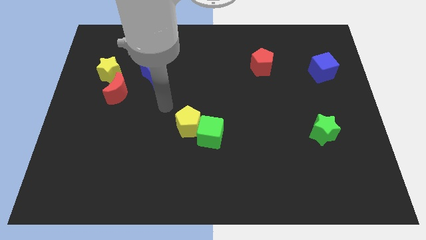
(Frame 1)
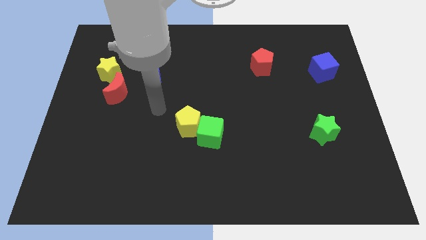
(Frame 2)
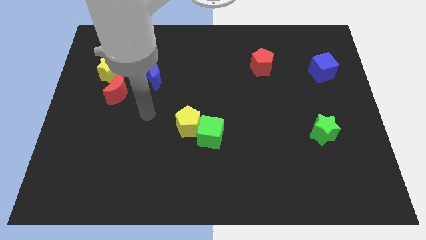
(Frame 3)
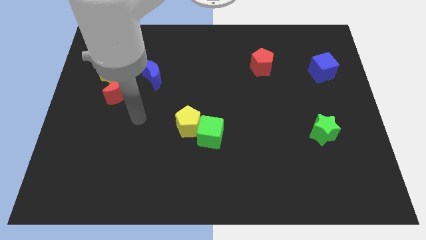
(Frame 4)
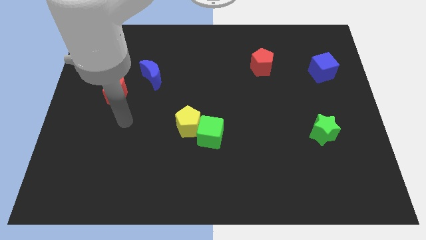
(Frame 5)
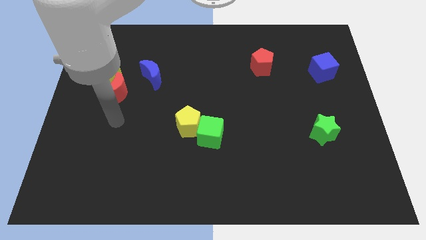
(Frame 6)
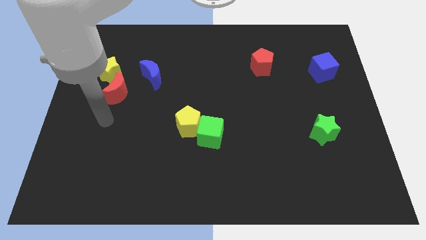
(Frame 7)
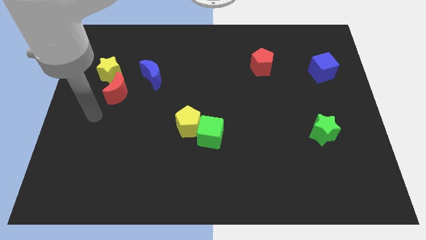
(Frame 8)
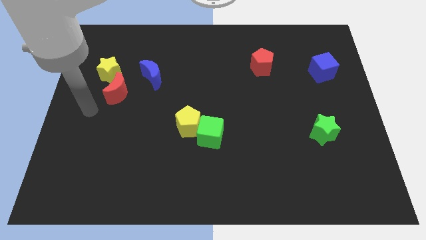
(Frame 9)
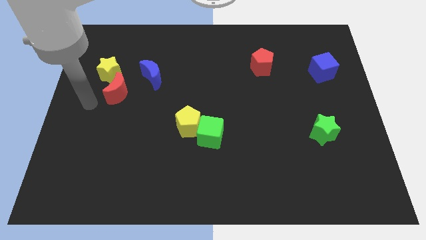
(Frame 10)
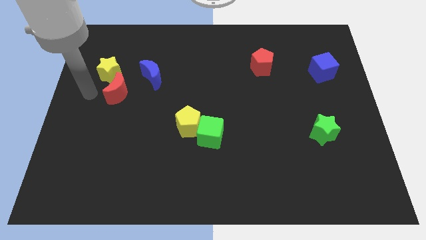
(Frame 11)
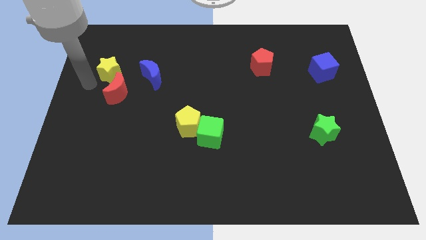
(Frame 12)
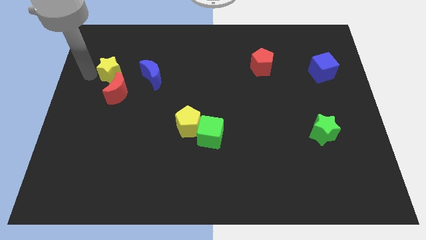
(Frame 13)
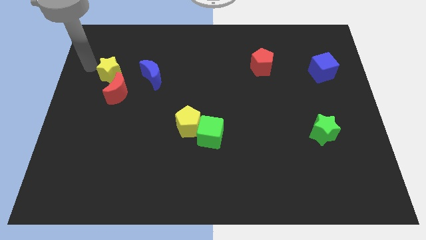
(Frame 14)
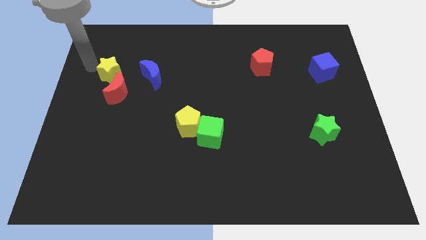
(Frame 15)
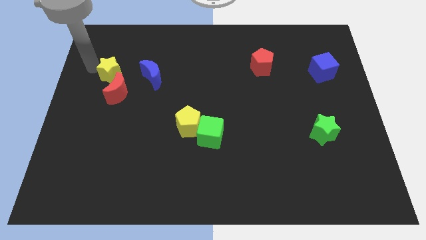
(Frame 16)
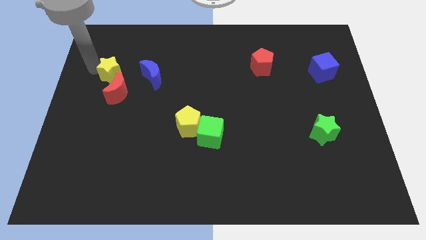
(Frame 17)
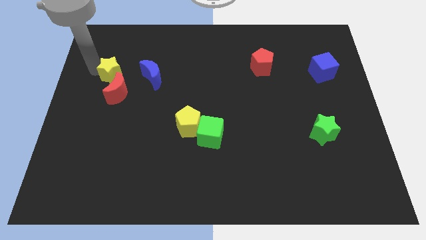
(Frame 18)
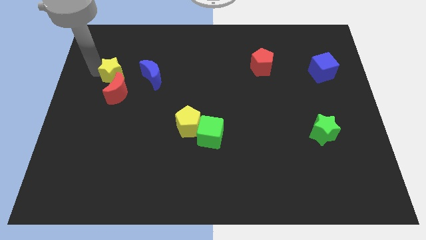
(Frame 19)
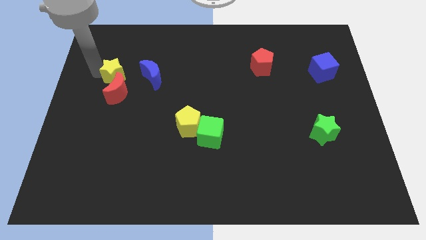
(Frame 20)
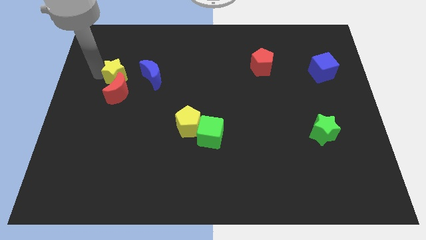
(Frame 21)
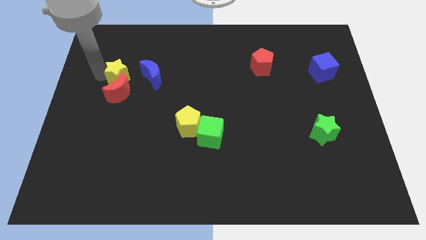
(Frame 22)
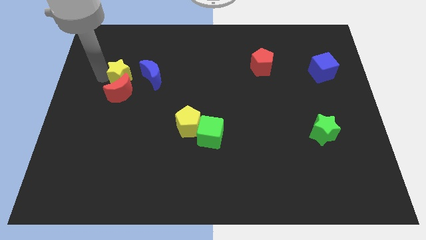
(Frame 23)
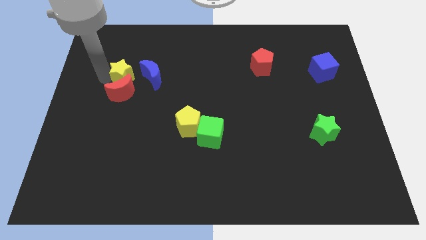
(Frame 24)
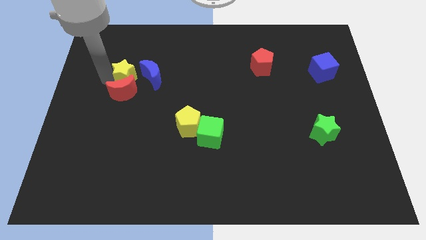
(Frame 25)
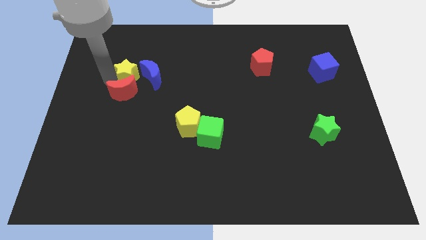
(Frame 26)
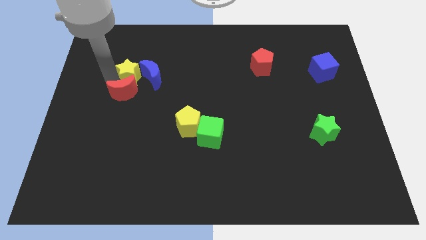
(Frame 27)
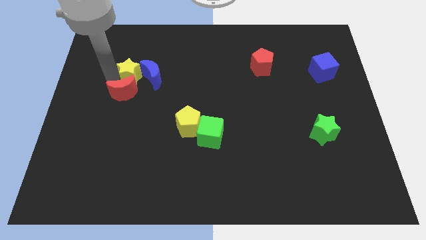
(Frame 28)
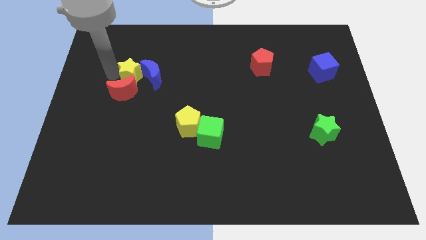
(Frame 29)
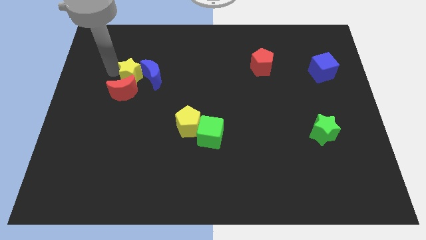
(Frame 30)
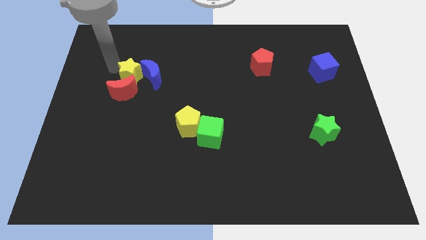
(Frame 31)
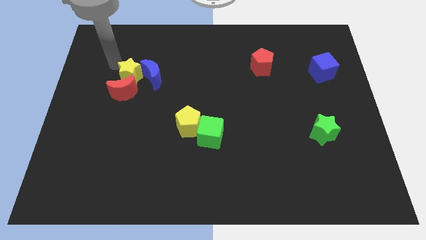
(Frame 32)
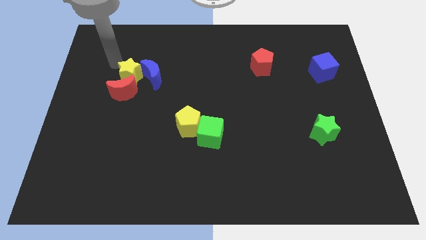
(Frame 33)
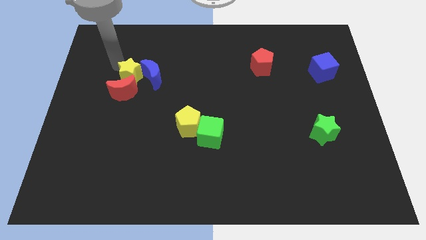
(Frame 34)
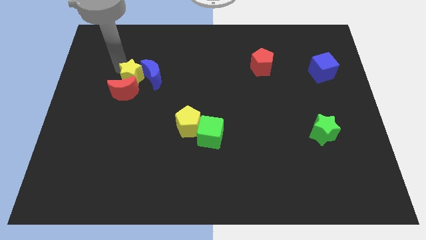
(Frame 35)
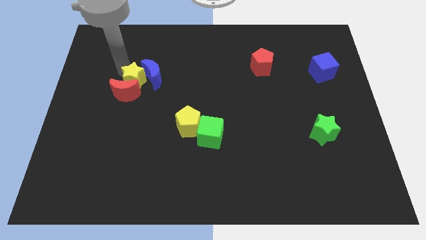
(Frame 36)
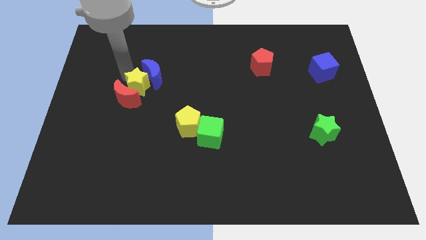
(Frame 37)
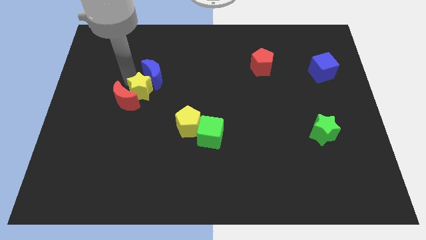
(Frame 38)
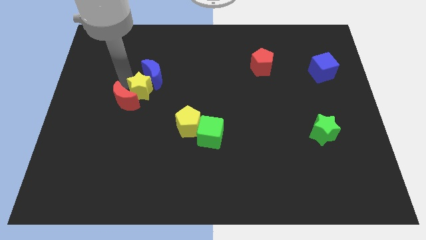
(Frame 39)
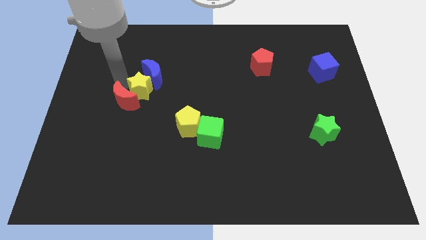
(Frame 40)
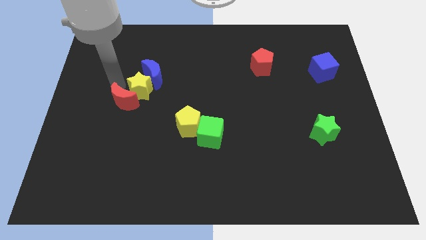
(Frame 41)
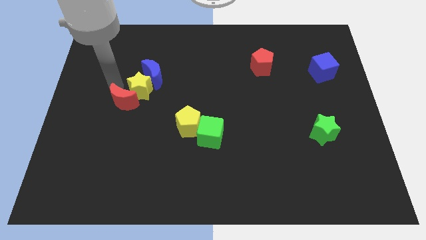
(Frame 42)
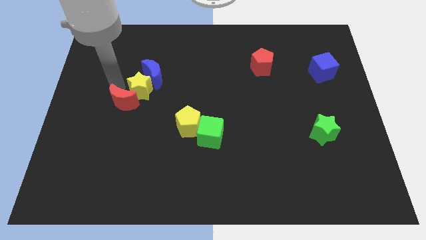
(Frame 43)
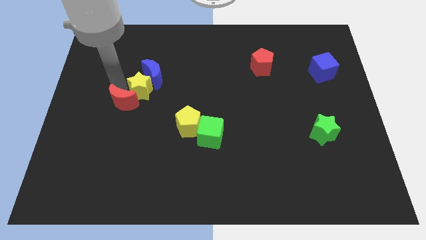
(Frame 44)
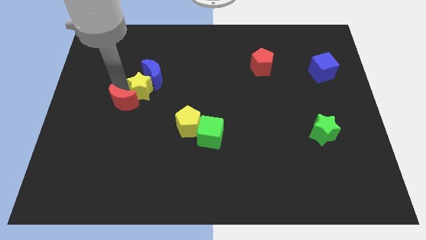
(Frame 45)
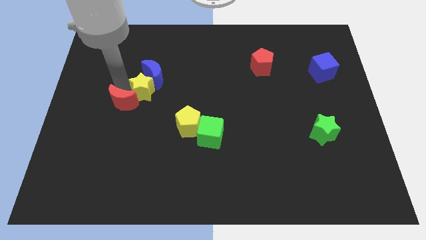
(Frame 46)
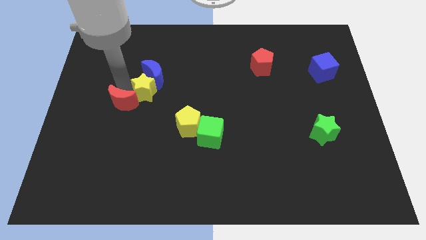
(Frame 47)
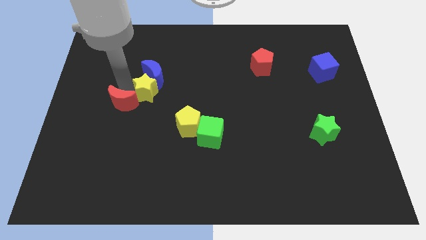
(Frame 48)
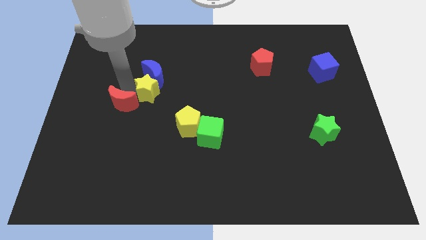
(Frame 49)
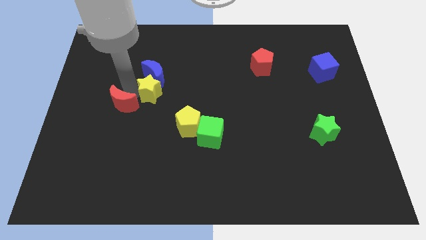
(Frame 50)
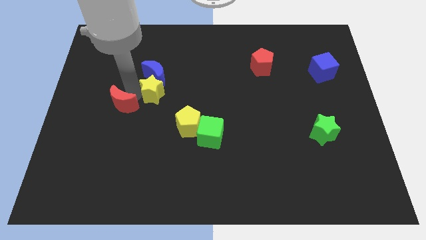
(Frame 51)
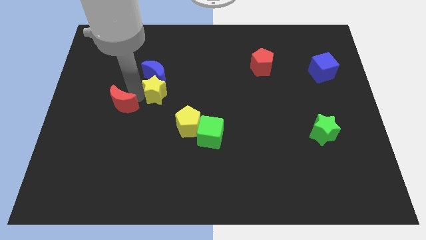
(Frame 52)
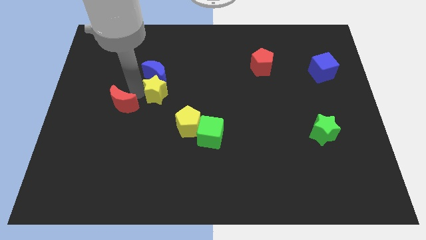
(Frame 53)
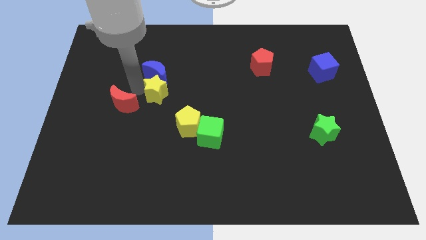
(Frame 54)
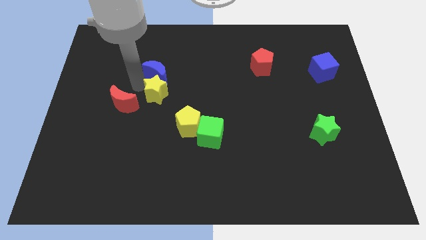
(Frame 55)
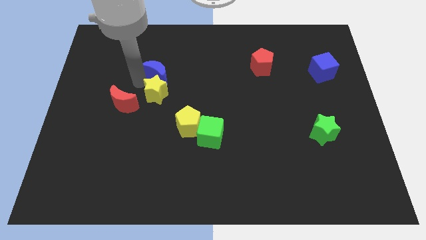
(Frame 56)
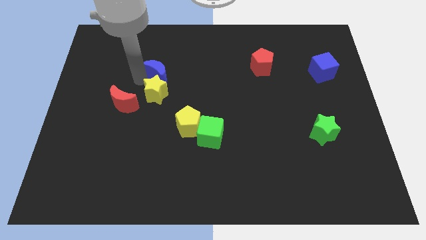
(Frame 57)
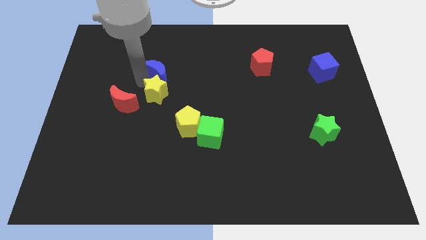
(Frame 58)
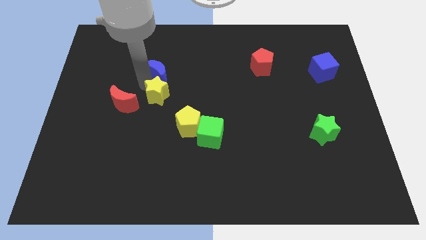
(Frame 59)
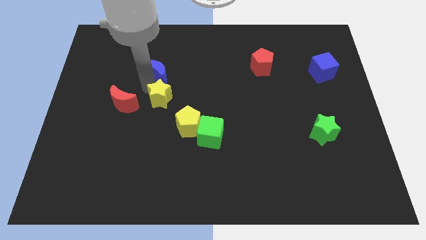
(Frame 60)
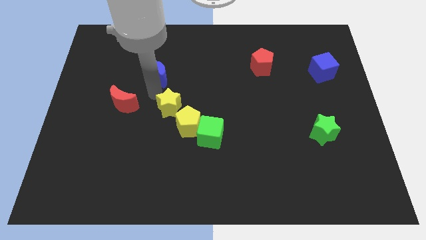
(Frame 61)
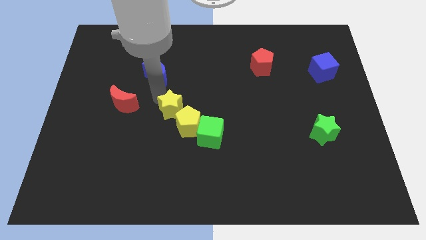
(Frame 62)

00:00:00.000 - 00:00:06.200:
put the yellow star to the yellow pentagon

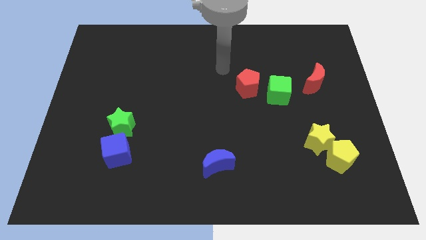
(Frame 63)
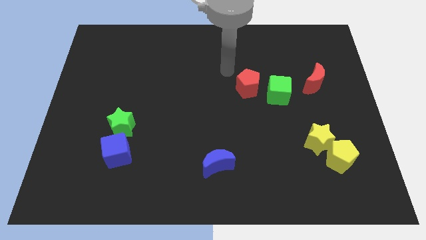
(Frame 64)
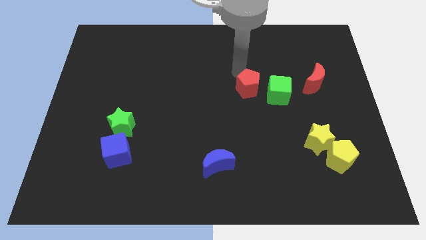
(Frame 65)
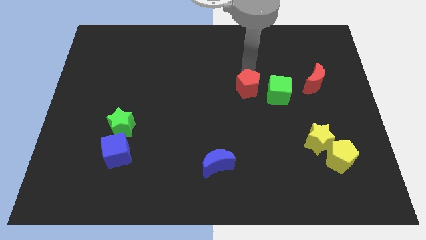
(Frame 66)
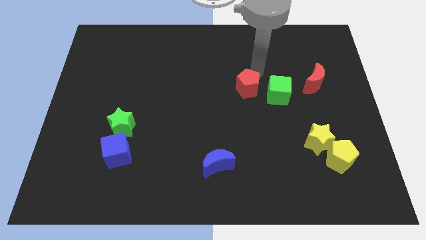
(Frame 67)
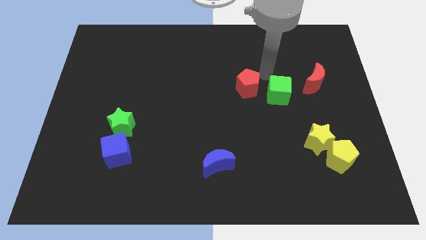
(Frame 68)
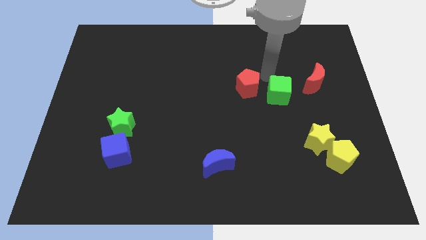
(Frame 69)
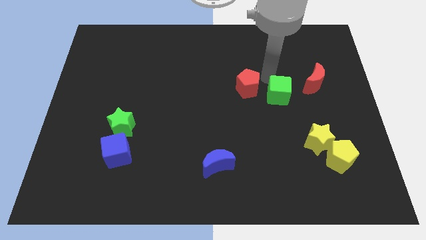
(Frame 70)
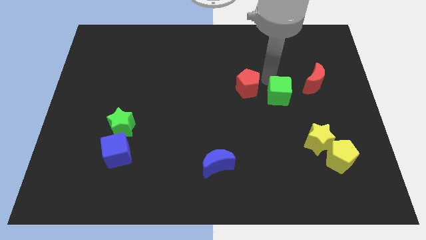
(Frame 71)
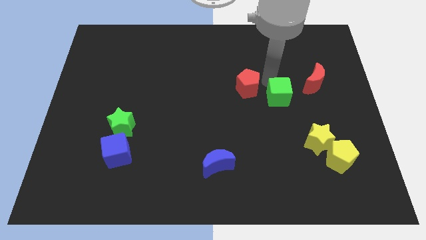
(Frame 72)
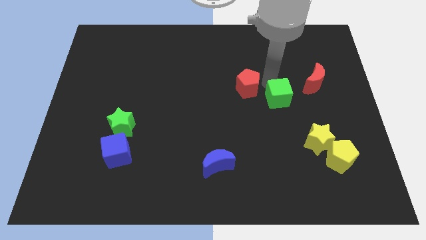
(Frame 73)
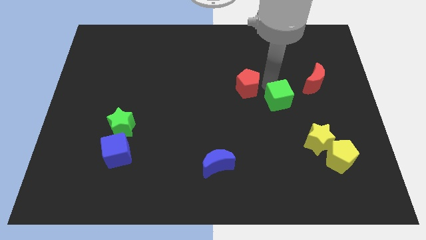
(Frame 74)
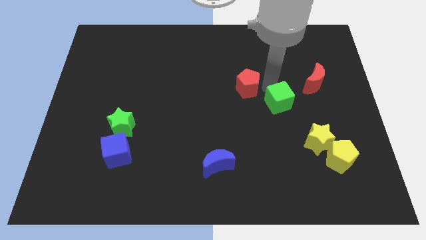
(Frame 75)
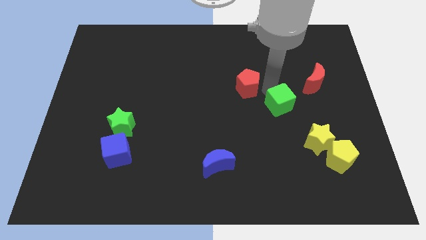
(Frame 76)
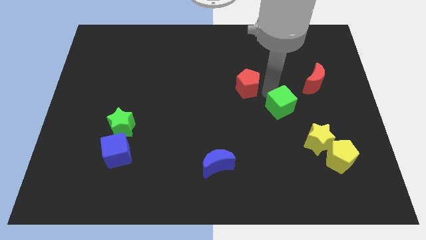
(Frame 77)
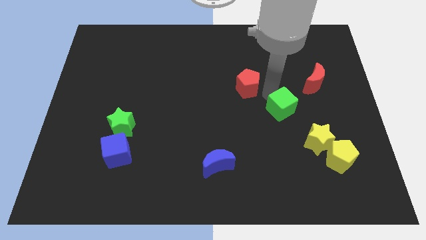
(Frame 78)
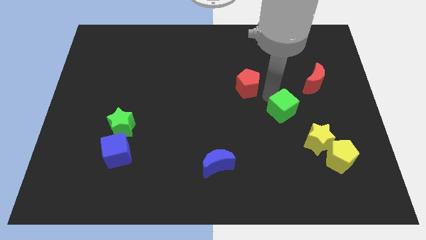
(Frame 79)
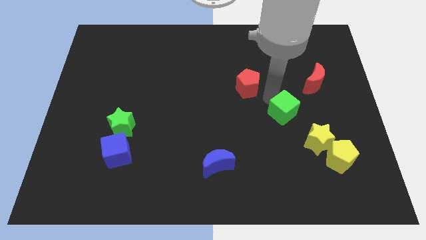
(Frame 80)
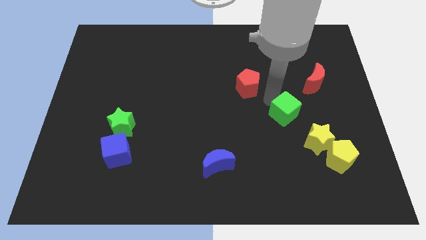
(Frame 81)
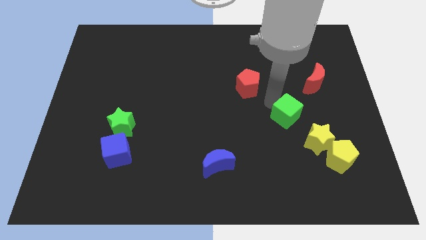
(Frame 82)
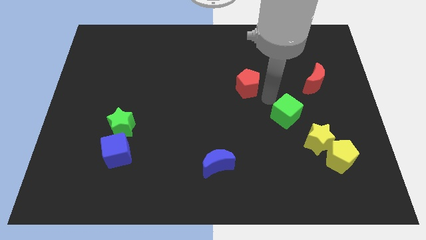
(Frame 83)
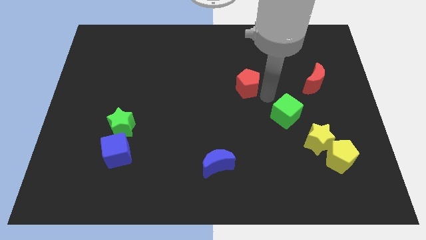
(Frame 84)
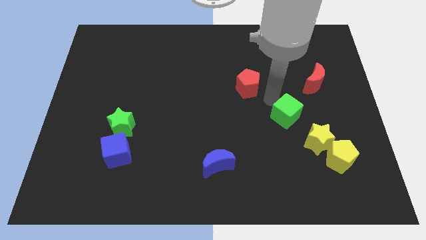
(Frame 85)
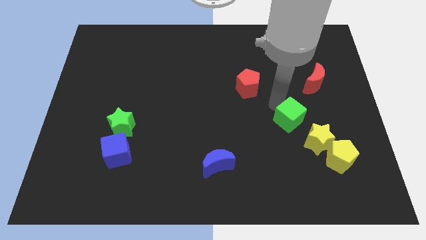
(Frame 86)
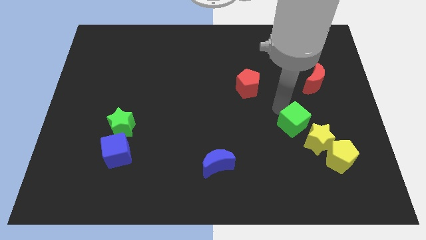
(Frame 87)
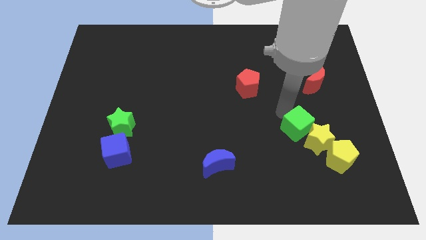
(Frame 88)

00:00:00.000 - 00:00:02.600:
move the green cube next to the yellow star
